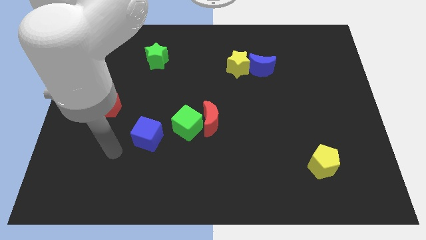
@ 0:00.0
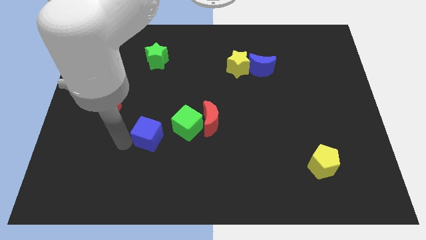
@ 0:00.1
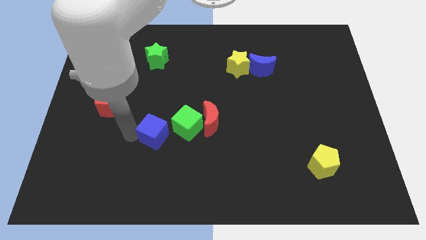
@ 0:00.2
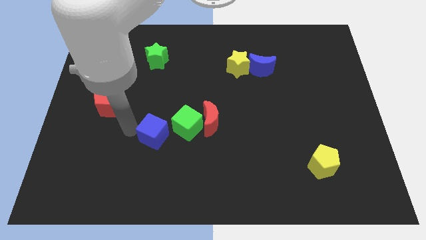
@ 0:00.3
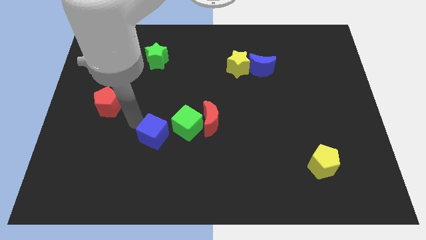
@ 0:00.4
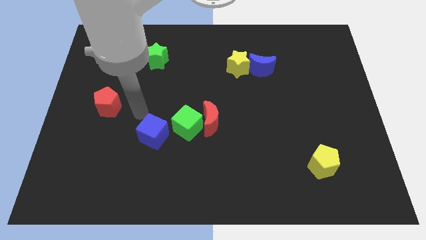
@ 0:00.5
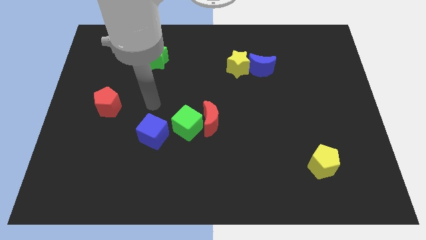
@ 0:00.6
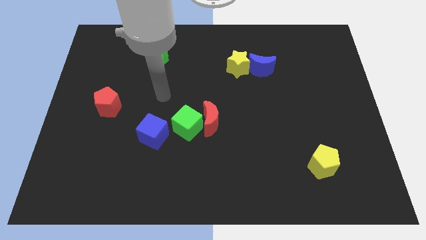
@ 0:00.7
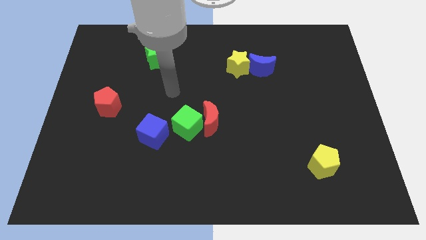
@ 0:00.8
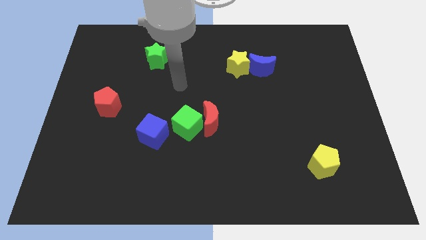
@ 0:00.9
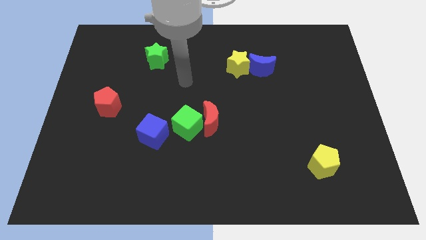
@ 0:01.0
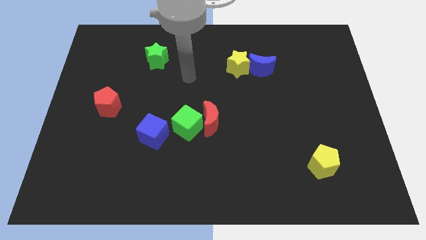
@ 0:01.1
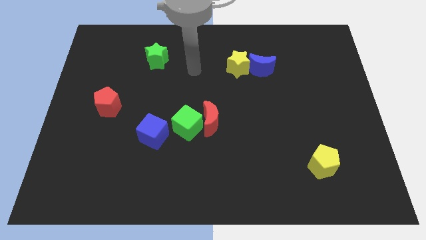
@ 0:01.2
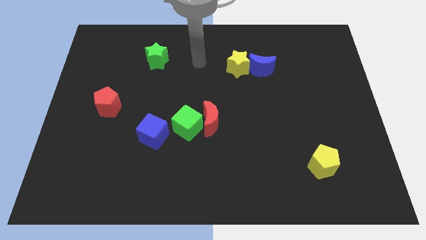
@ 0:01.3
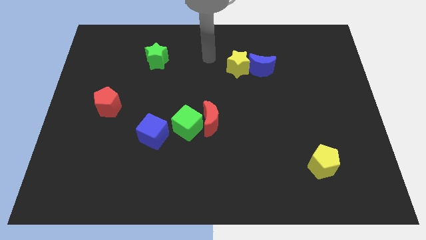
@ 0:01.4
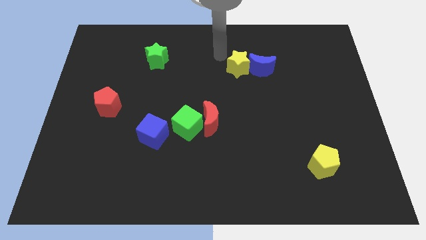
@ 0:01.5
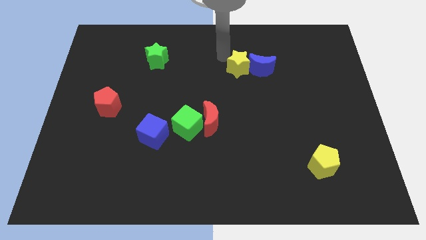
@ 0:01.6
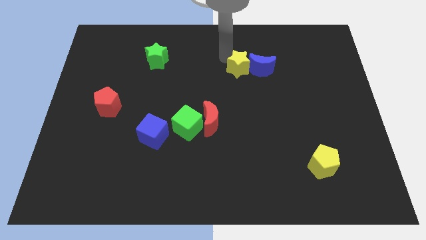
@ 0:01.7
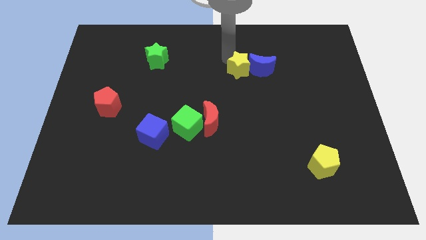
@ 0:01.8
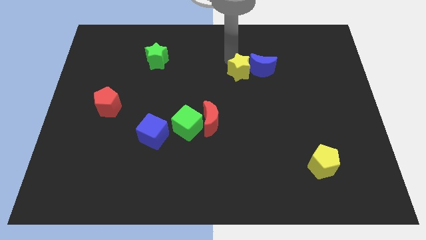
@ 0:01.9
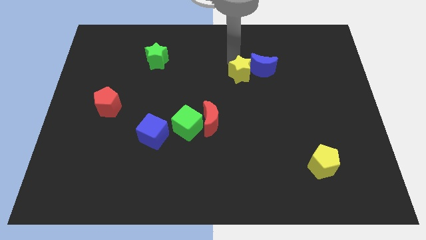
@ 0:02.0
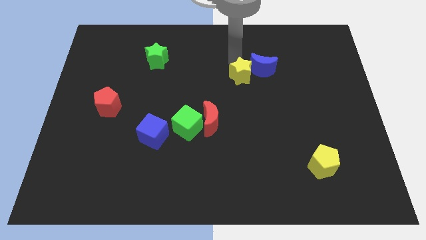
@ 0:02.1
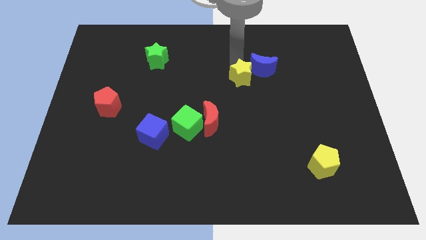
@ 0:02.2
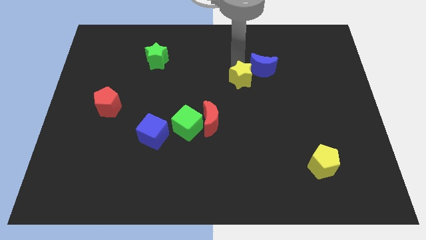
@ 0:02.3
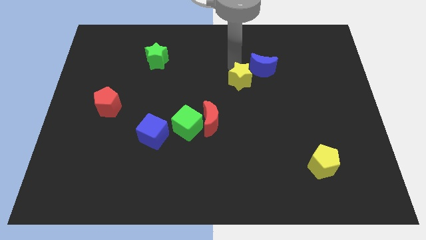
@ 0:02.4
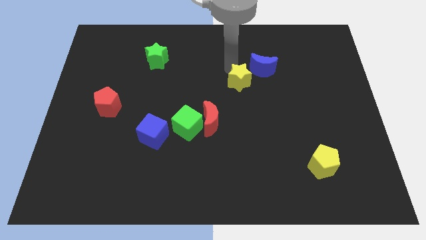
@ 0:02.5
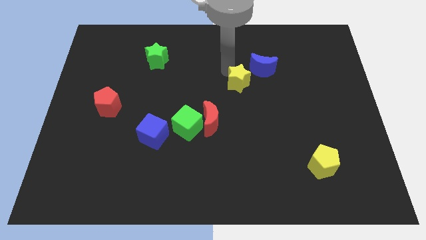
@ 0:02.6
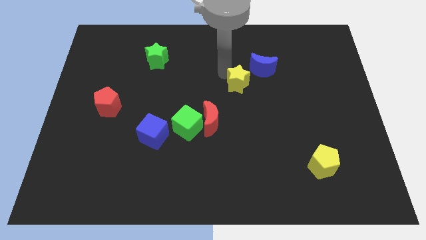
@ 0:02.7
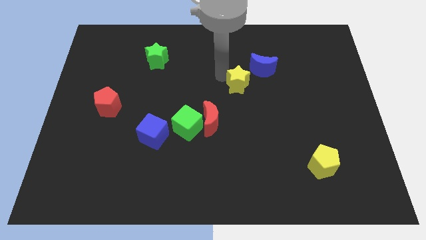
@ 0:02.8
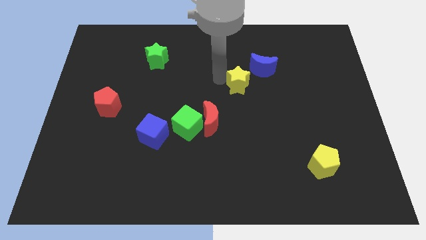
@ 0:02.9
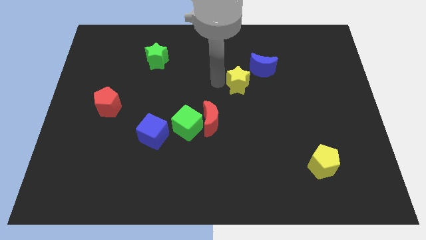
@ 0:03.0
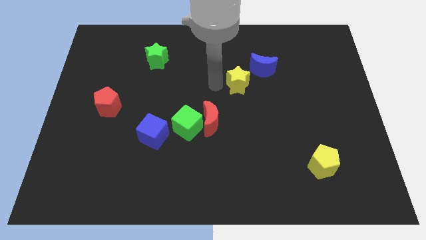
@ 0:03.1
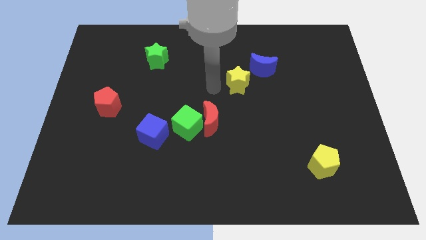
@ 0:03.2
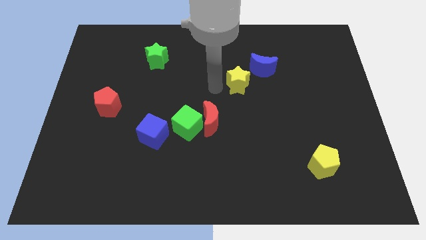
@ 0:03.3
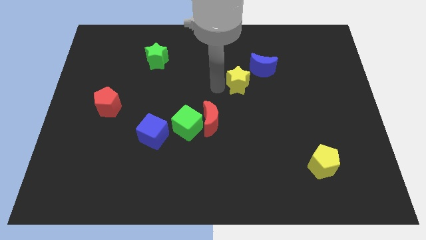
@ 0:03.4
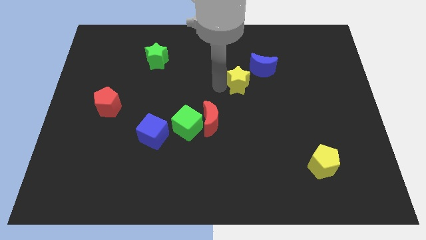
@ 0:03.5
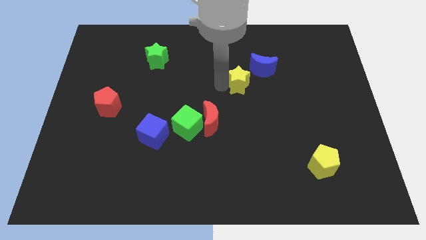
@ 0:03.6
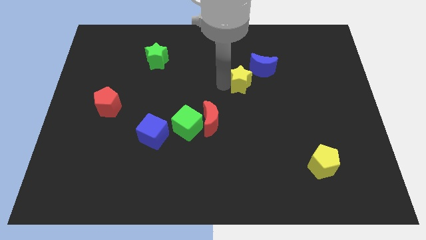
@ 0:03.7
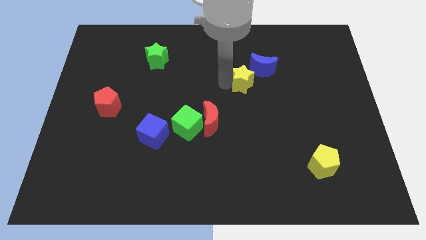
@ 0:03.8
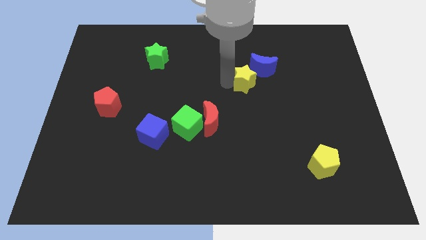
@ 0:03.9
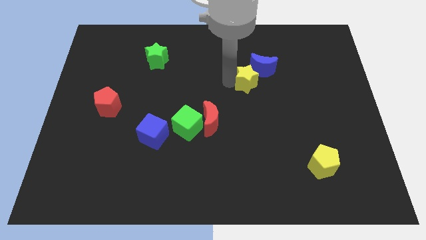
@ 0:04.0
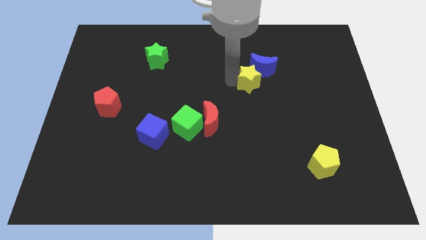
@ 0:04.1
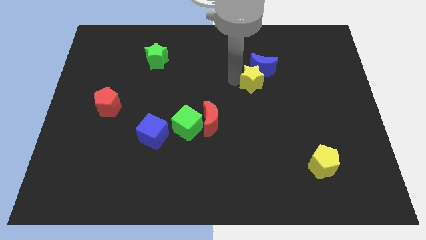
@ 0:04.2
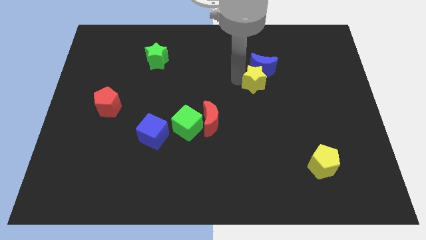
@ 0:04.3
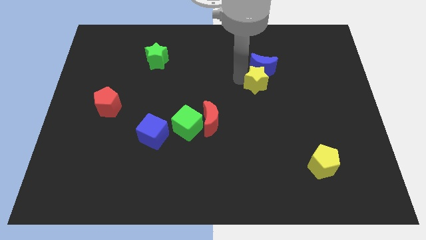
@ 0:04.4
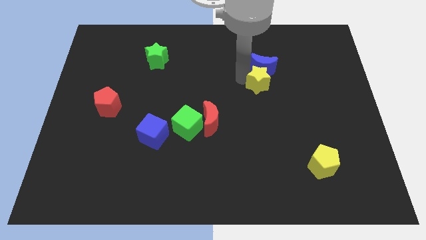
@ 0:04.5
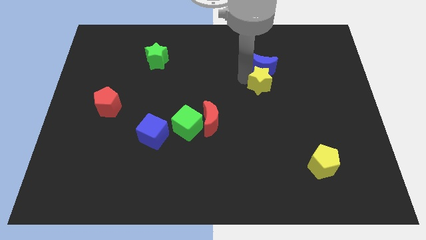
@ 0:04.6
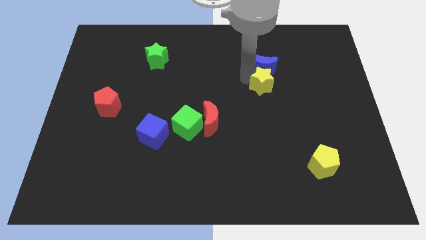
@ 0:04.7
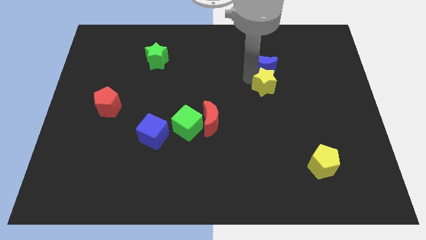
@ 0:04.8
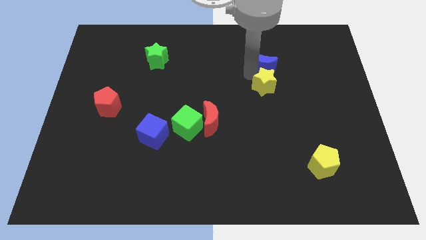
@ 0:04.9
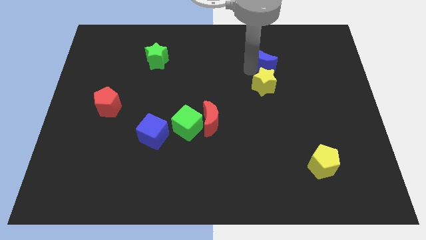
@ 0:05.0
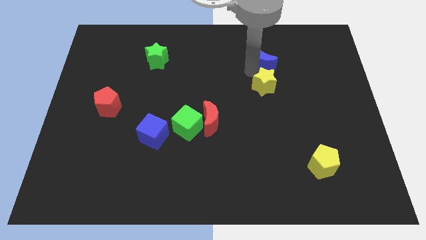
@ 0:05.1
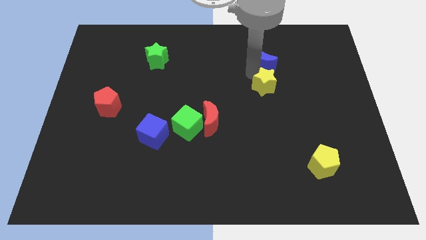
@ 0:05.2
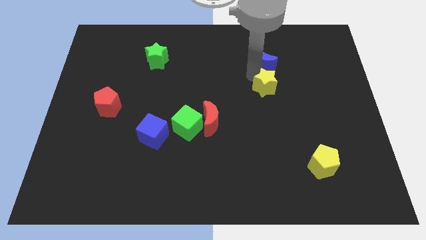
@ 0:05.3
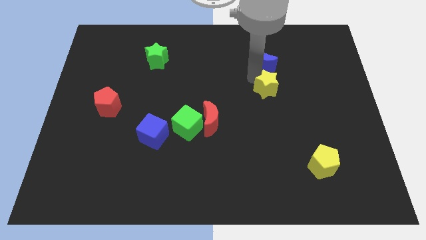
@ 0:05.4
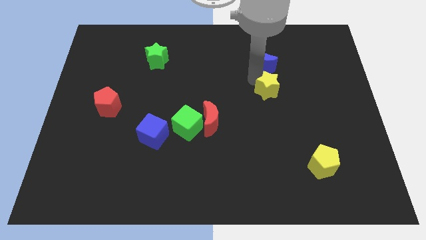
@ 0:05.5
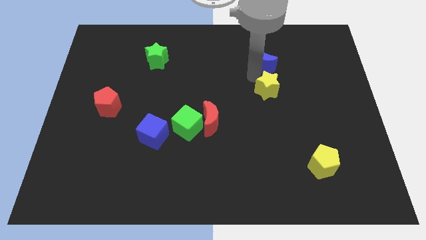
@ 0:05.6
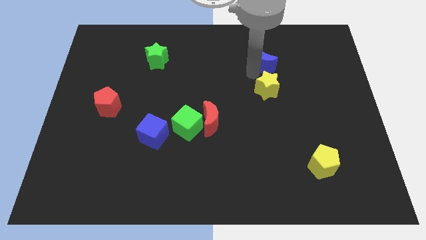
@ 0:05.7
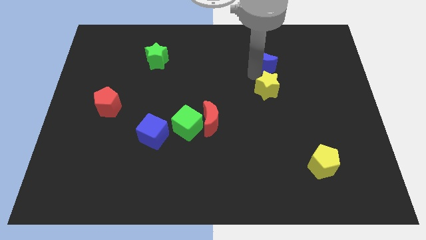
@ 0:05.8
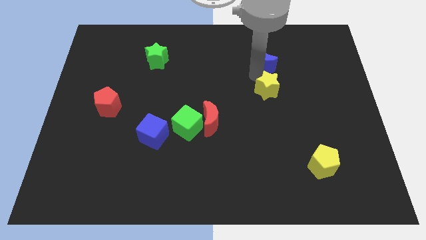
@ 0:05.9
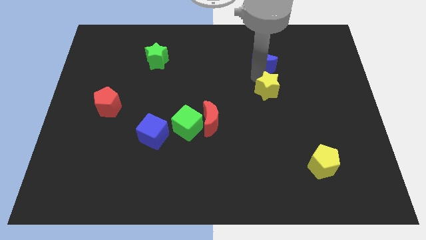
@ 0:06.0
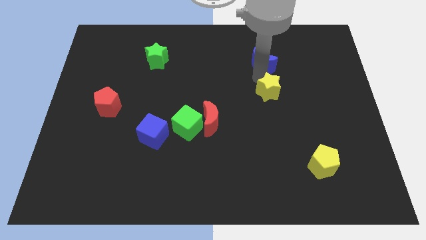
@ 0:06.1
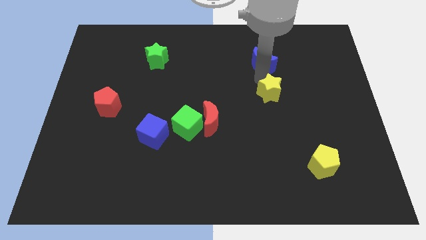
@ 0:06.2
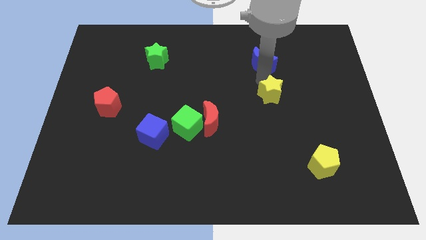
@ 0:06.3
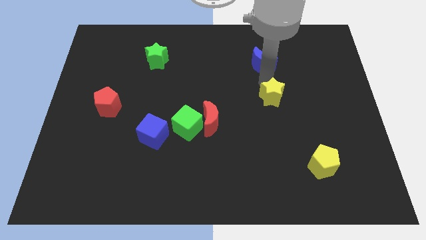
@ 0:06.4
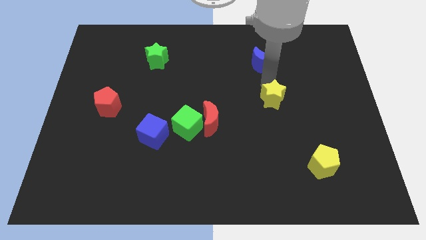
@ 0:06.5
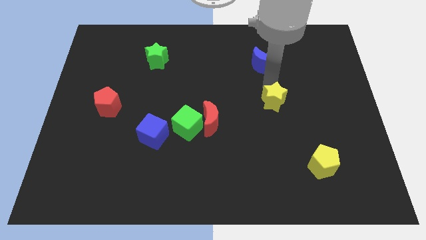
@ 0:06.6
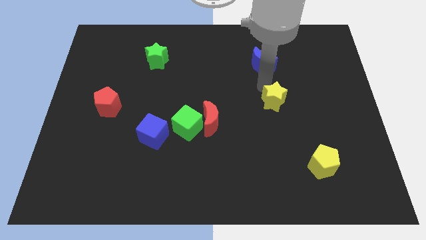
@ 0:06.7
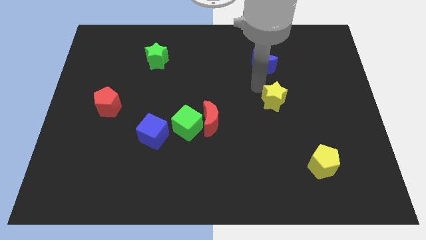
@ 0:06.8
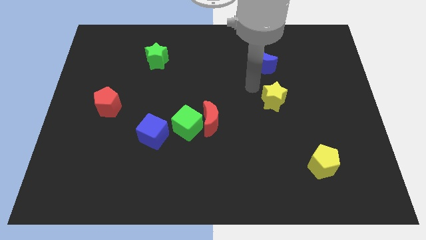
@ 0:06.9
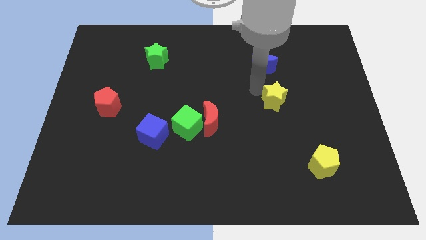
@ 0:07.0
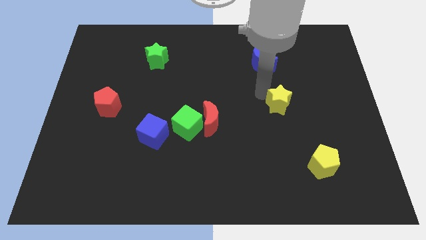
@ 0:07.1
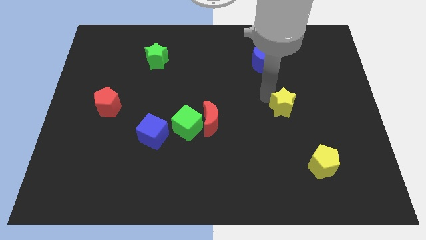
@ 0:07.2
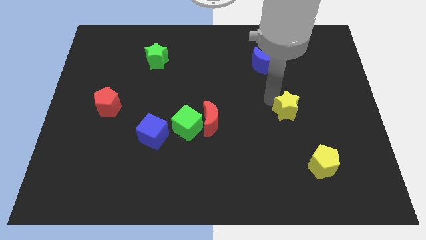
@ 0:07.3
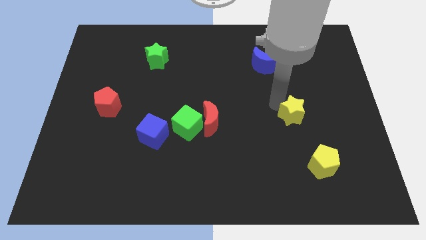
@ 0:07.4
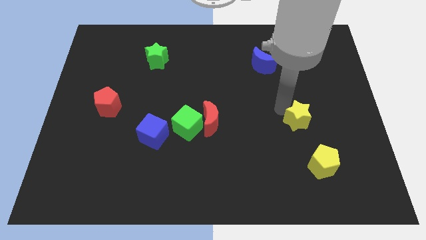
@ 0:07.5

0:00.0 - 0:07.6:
push the yellow star to the top side of the yellow pentagon
